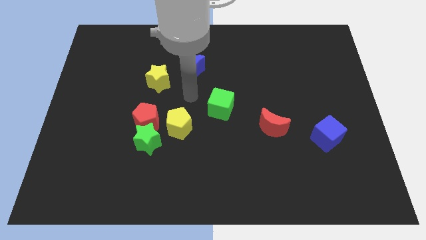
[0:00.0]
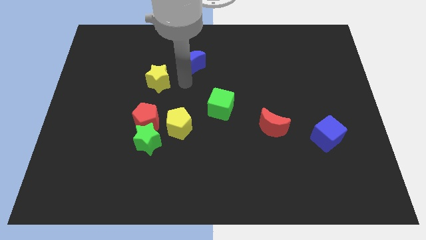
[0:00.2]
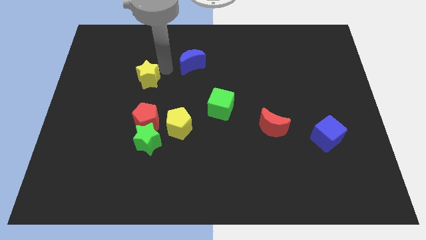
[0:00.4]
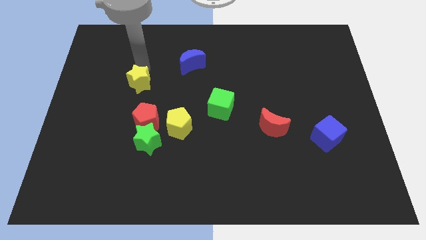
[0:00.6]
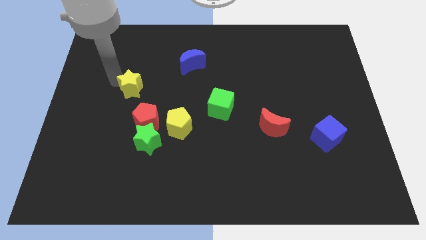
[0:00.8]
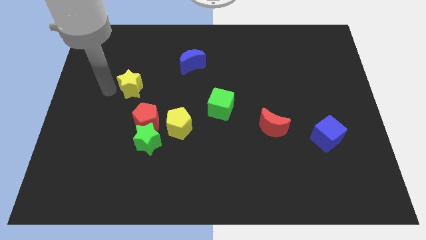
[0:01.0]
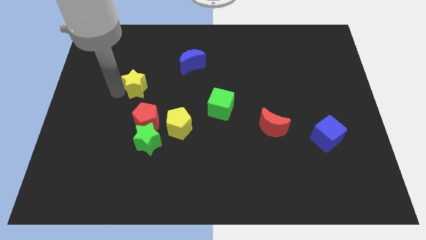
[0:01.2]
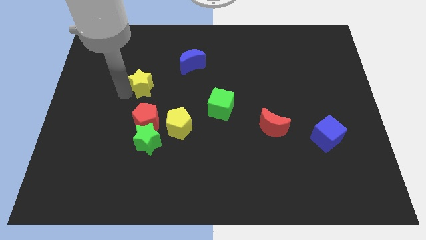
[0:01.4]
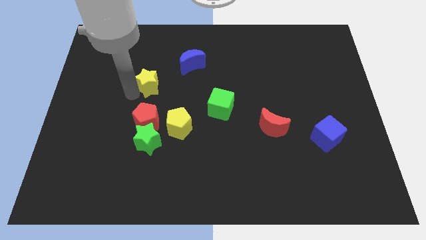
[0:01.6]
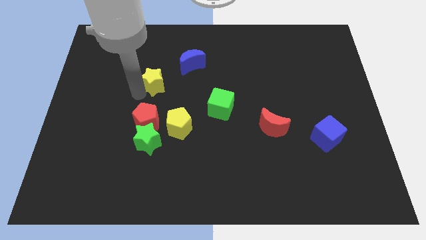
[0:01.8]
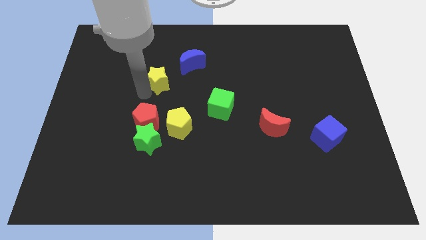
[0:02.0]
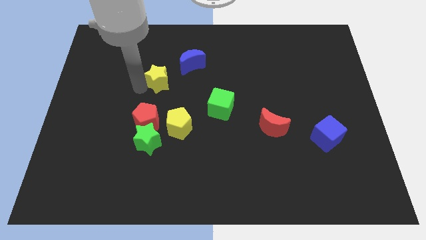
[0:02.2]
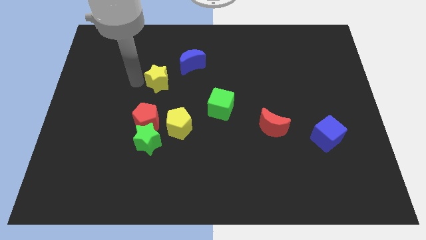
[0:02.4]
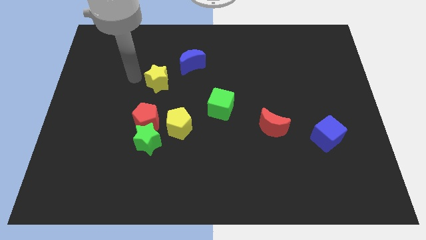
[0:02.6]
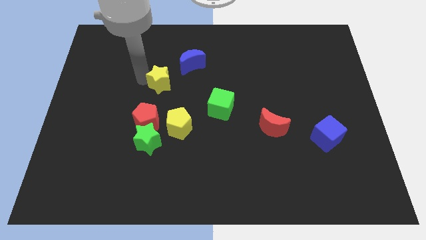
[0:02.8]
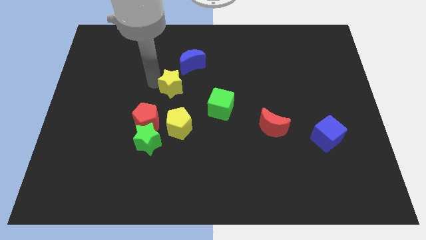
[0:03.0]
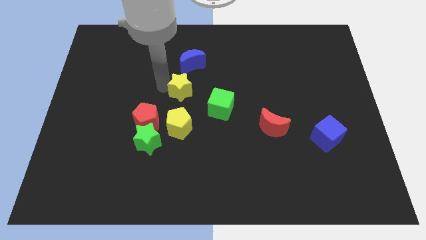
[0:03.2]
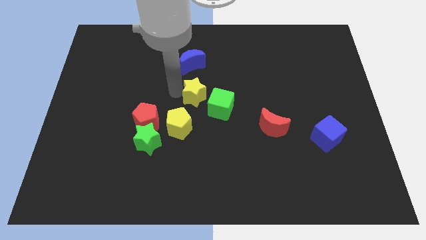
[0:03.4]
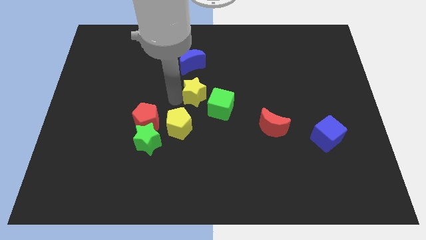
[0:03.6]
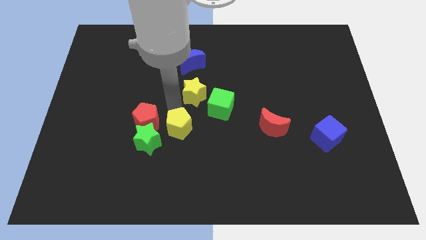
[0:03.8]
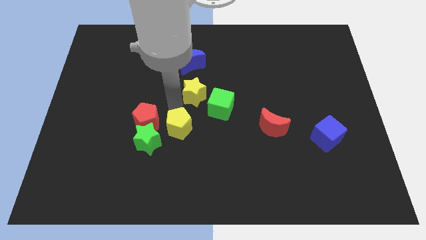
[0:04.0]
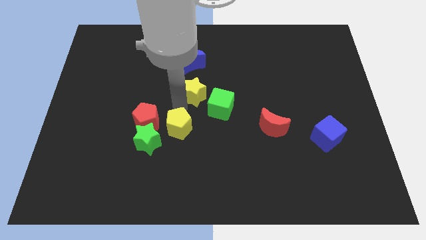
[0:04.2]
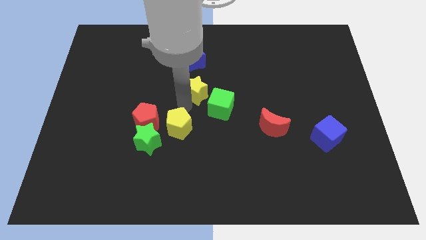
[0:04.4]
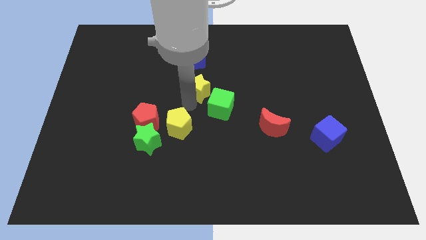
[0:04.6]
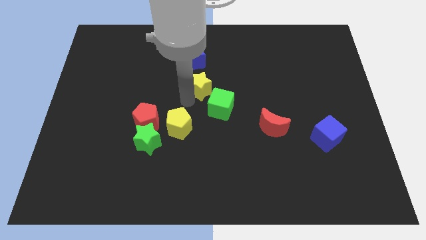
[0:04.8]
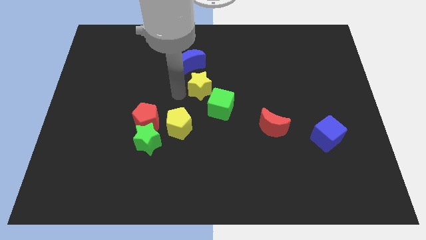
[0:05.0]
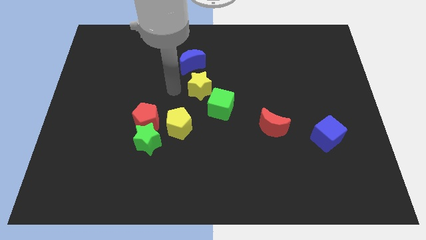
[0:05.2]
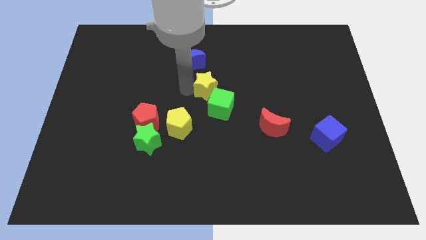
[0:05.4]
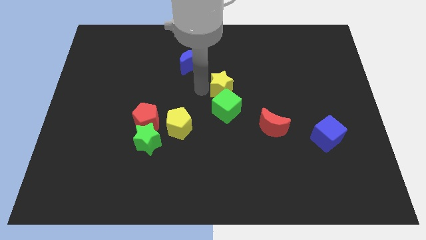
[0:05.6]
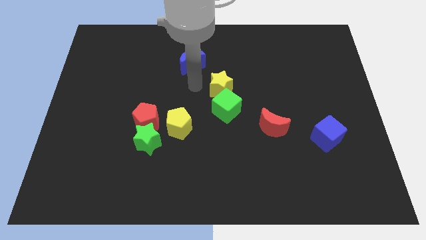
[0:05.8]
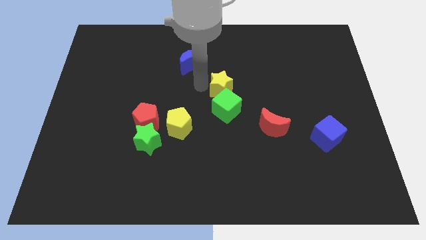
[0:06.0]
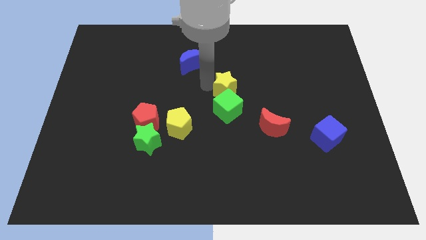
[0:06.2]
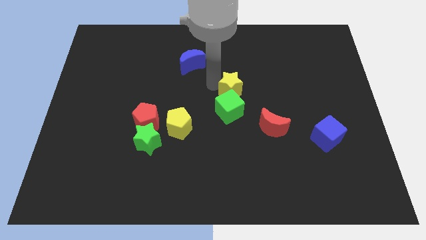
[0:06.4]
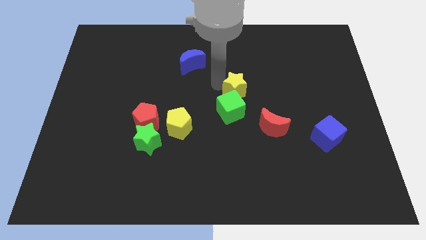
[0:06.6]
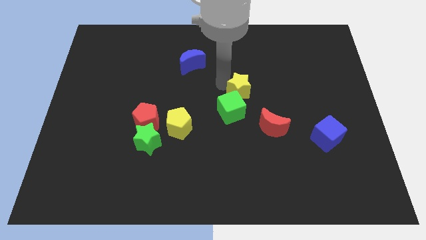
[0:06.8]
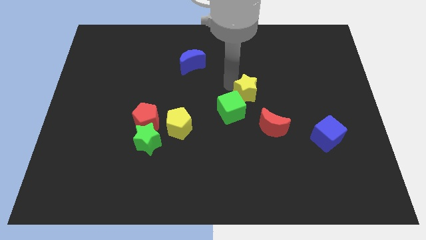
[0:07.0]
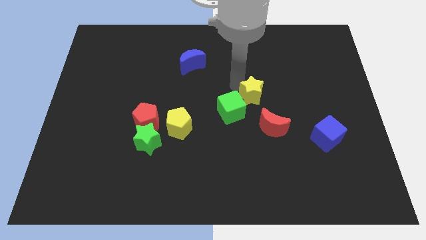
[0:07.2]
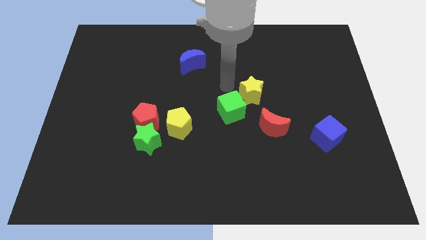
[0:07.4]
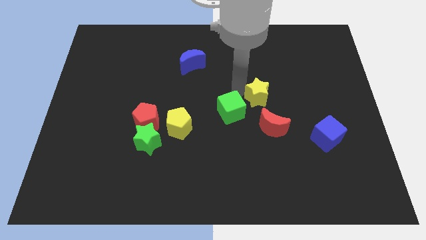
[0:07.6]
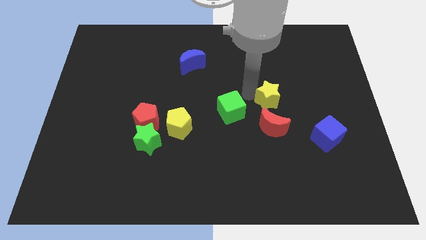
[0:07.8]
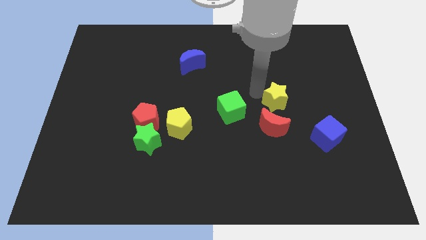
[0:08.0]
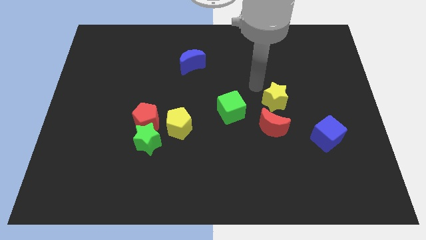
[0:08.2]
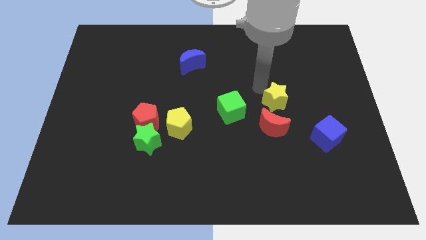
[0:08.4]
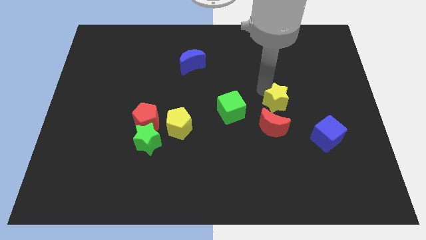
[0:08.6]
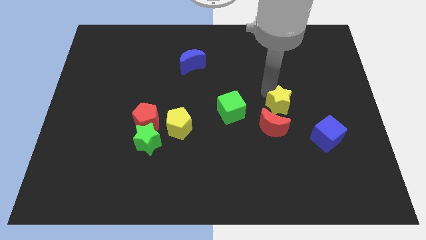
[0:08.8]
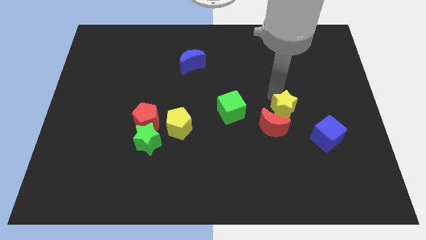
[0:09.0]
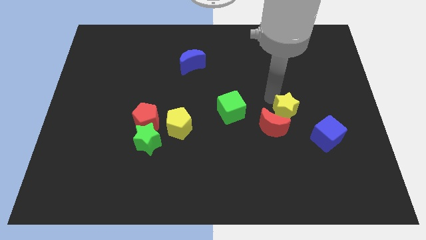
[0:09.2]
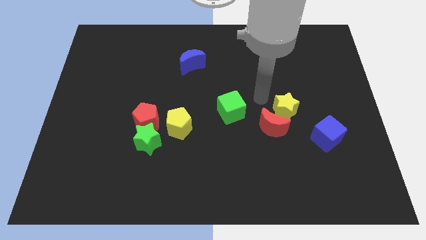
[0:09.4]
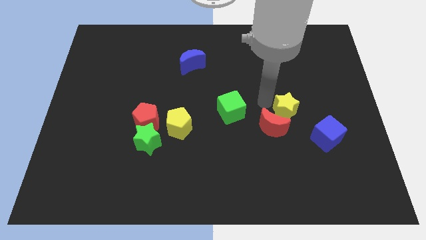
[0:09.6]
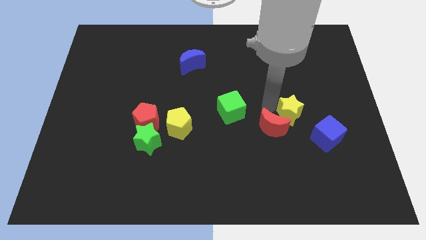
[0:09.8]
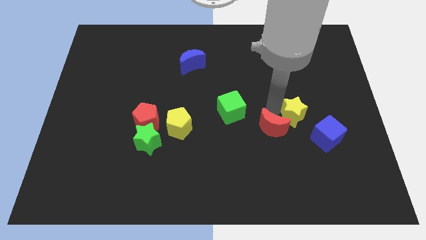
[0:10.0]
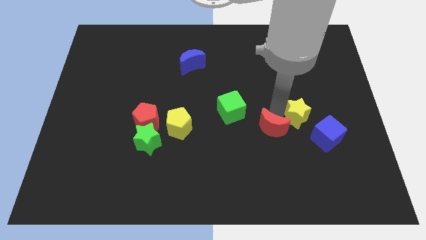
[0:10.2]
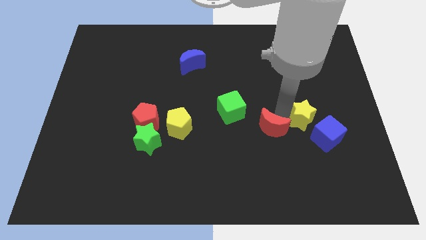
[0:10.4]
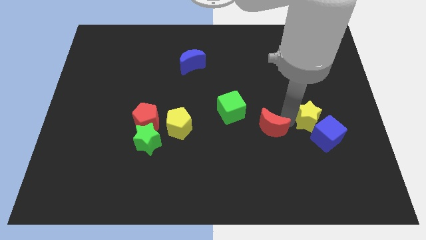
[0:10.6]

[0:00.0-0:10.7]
move the yellow star close to the blue cube
